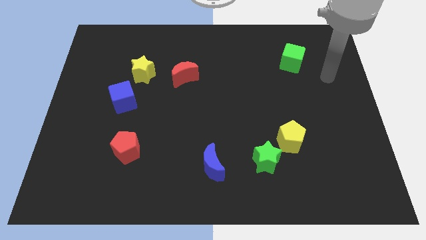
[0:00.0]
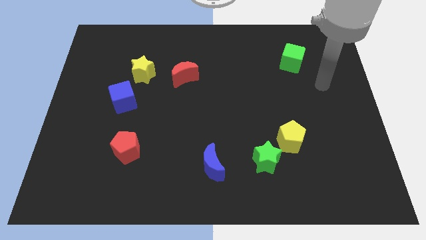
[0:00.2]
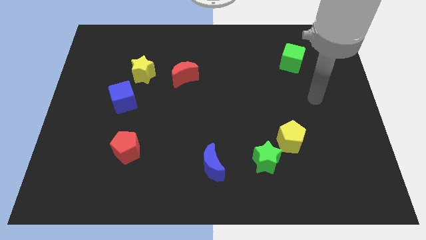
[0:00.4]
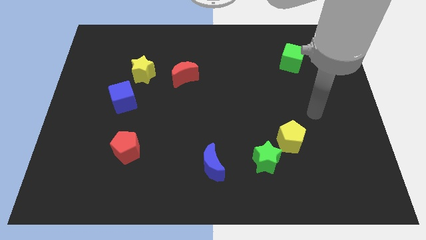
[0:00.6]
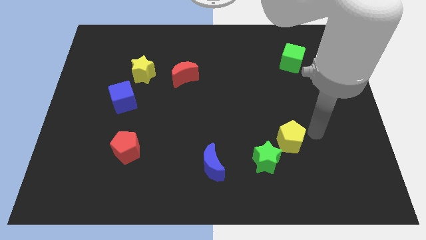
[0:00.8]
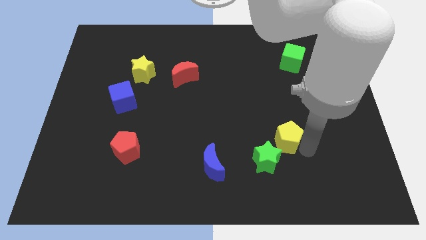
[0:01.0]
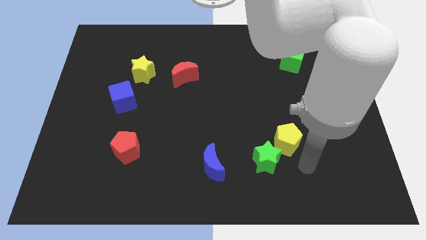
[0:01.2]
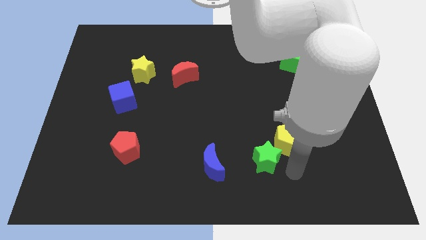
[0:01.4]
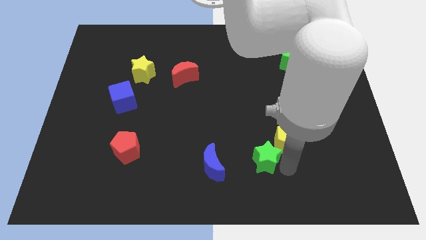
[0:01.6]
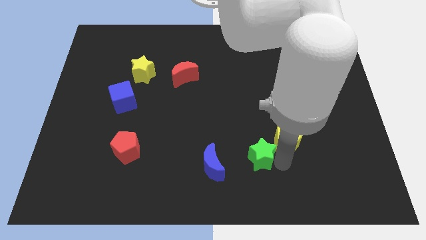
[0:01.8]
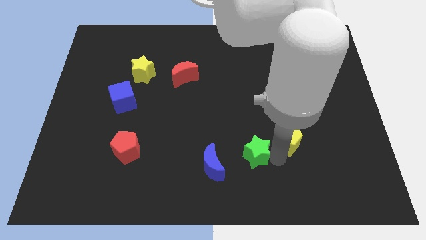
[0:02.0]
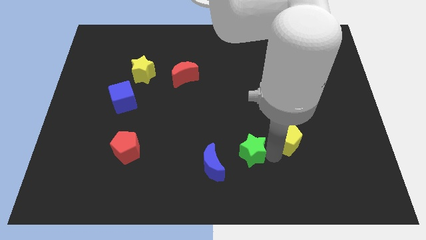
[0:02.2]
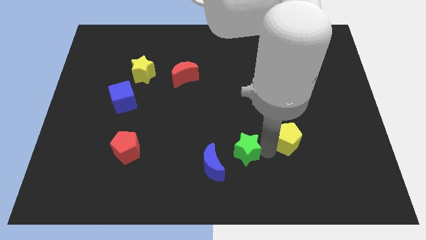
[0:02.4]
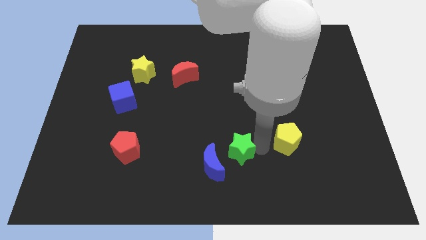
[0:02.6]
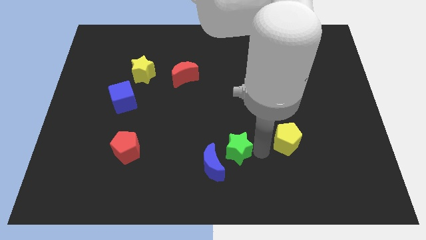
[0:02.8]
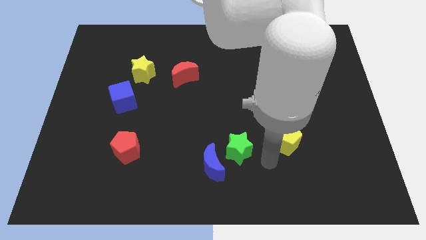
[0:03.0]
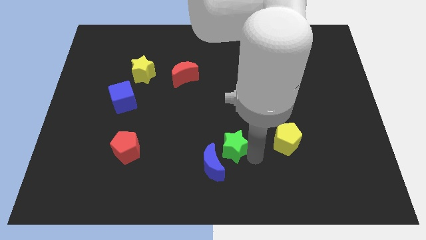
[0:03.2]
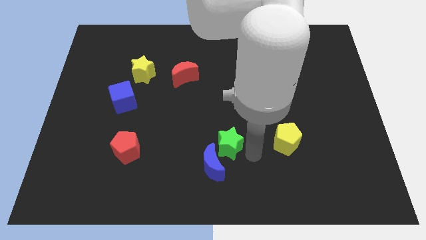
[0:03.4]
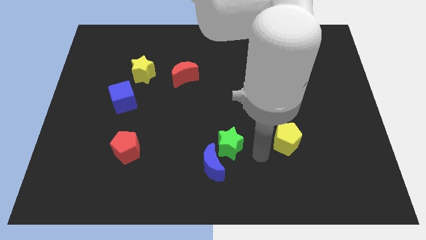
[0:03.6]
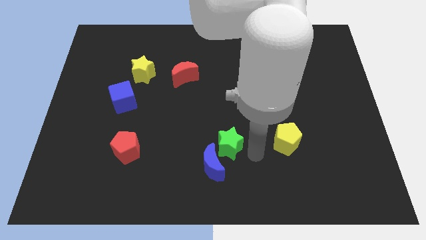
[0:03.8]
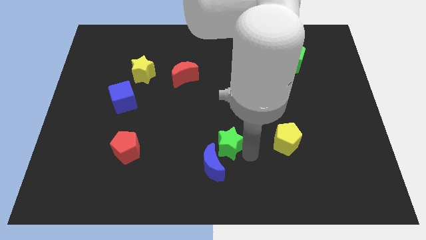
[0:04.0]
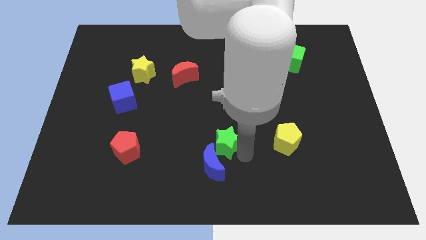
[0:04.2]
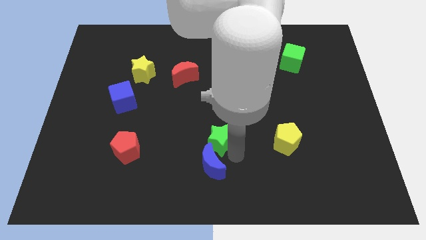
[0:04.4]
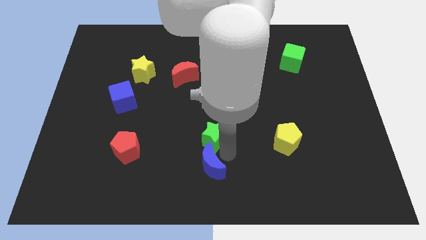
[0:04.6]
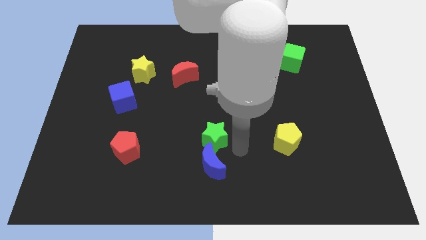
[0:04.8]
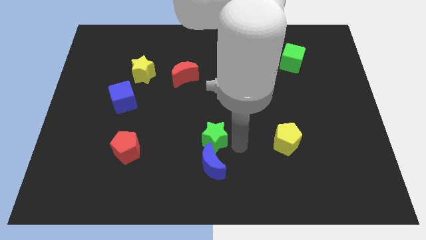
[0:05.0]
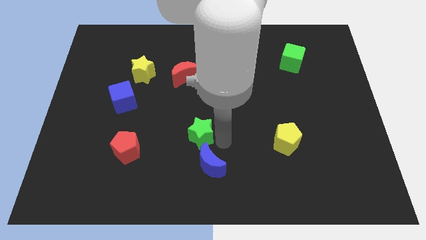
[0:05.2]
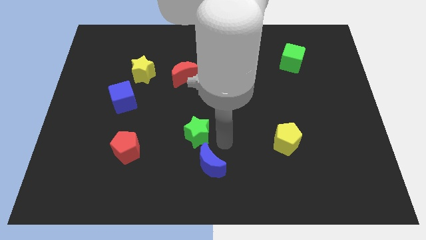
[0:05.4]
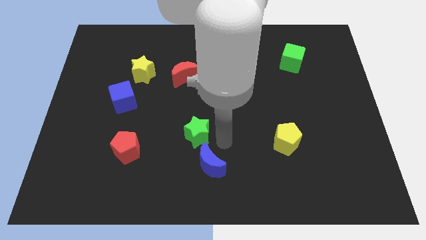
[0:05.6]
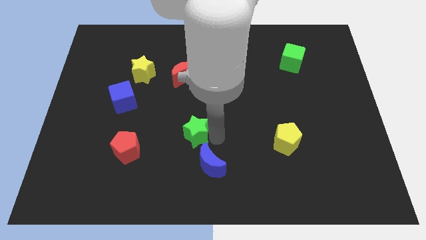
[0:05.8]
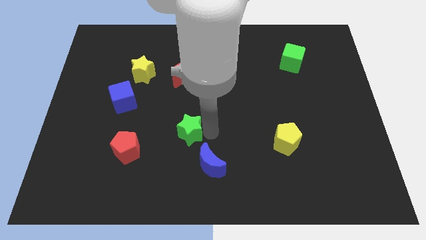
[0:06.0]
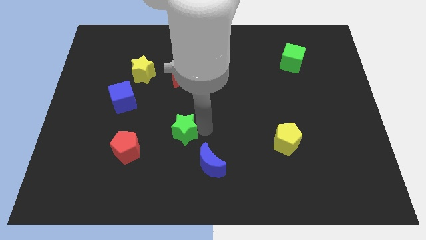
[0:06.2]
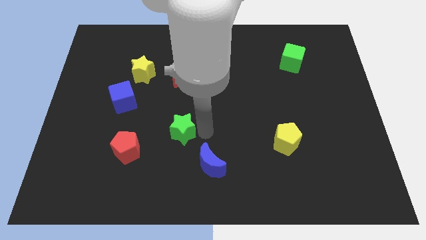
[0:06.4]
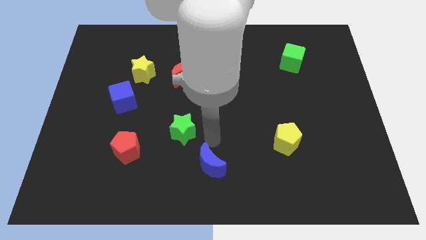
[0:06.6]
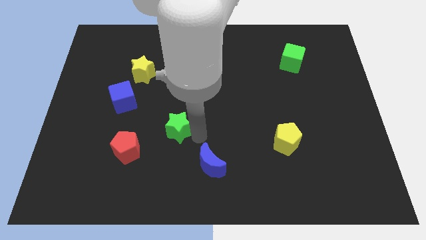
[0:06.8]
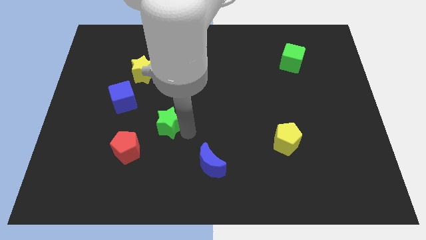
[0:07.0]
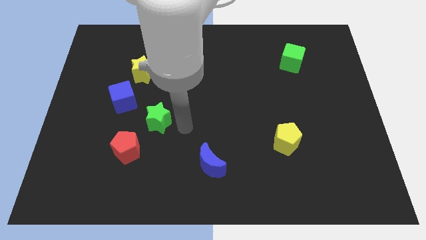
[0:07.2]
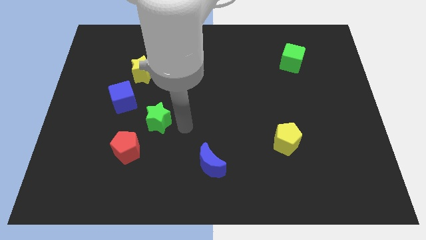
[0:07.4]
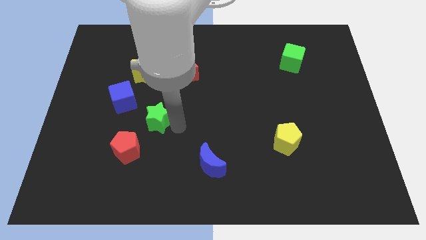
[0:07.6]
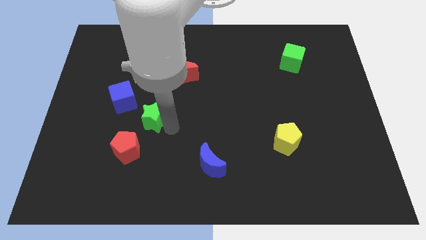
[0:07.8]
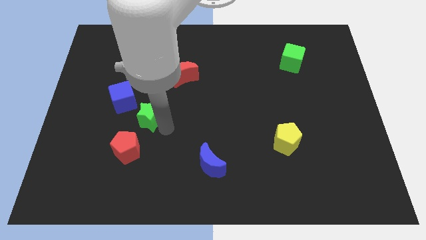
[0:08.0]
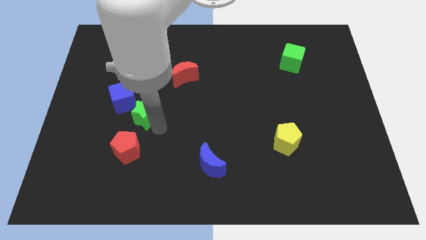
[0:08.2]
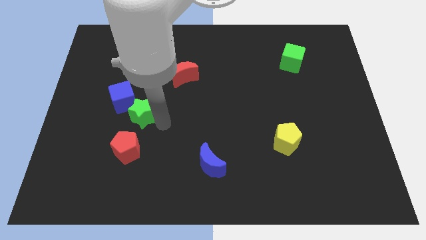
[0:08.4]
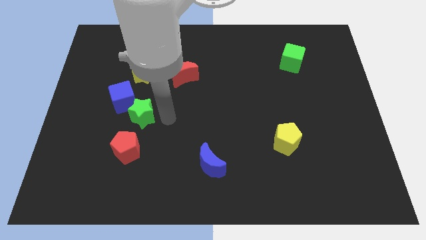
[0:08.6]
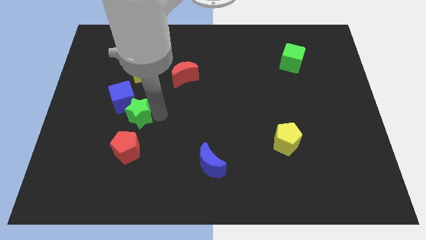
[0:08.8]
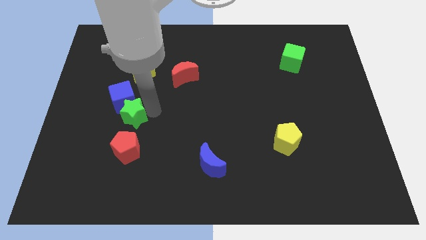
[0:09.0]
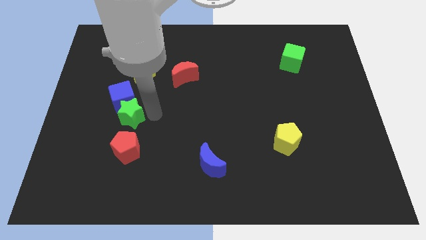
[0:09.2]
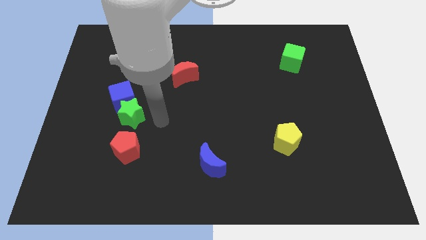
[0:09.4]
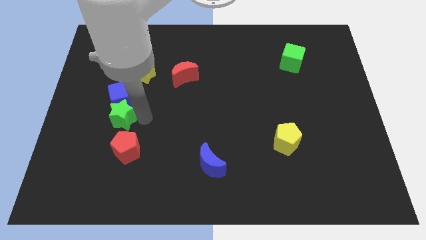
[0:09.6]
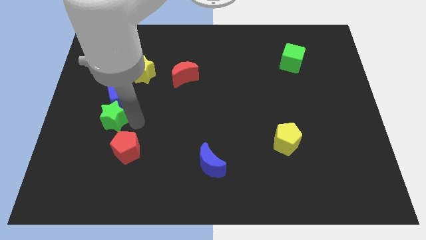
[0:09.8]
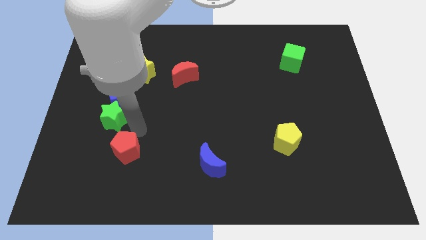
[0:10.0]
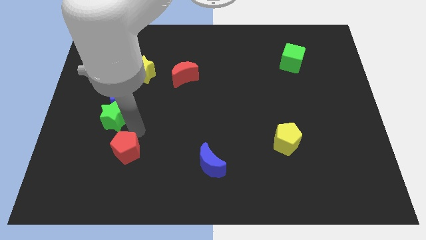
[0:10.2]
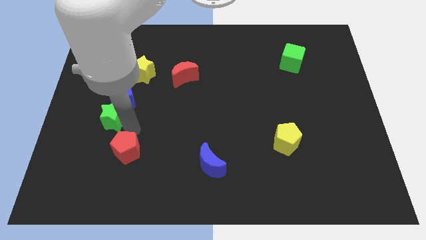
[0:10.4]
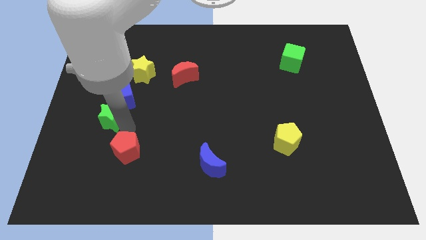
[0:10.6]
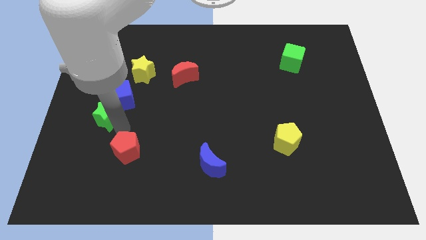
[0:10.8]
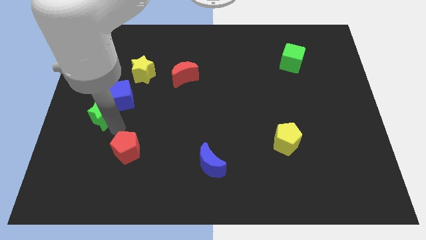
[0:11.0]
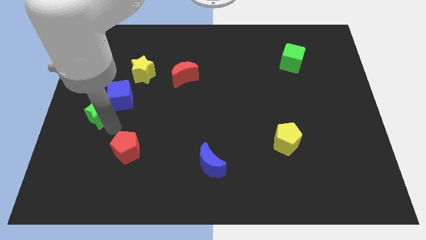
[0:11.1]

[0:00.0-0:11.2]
slide the green star to the center left
